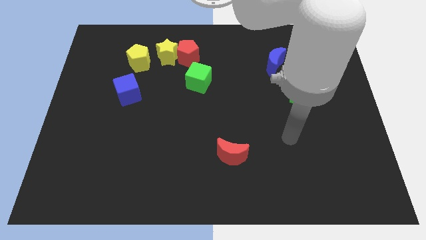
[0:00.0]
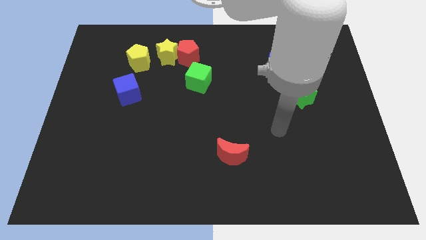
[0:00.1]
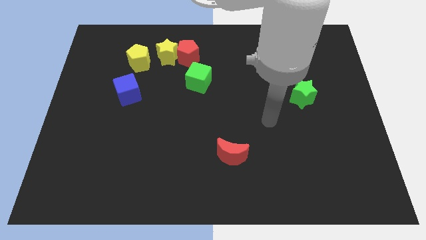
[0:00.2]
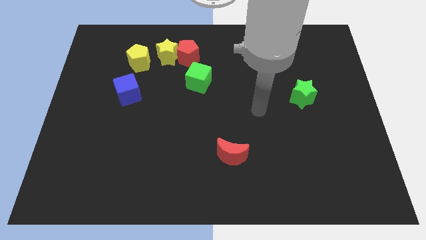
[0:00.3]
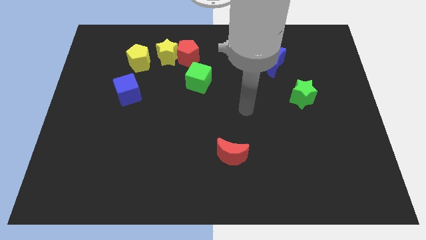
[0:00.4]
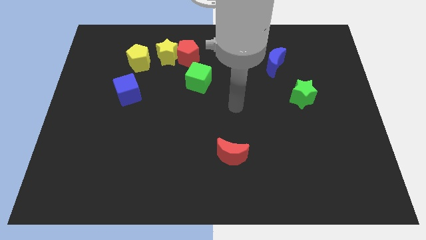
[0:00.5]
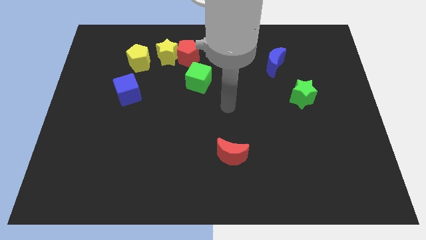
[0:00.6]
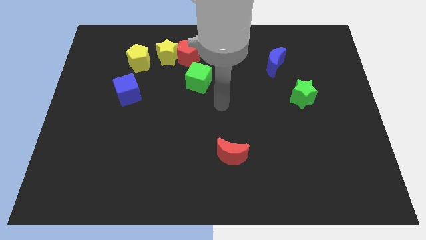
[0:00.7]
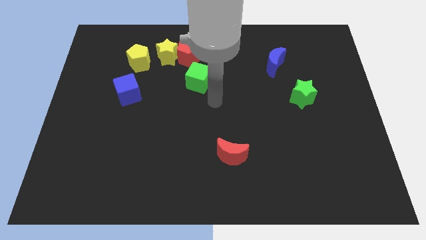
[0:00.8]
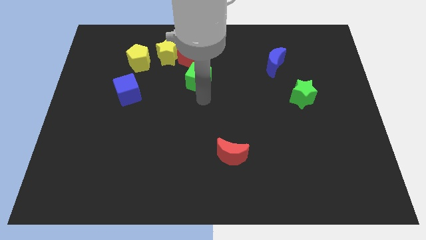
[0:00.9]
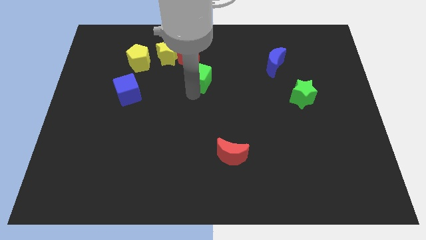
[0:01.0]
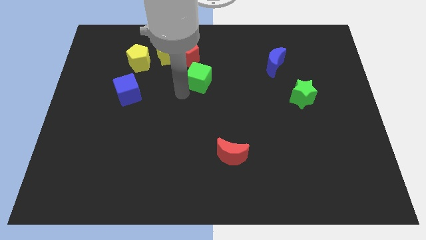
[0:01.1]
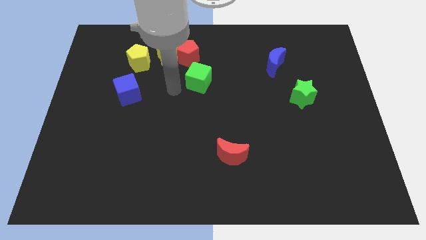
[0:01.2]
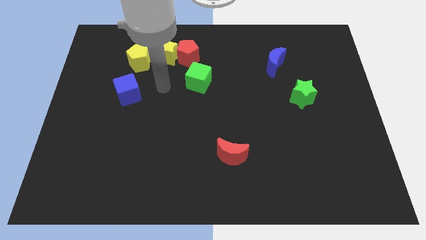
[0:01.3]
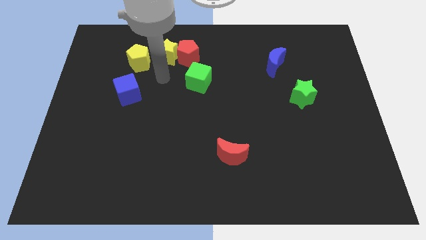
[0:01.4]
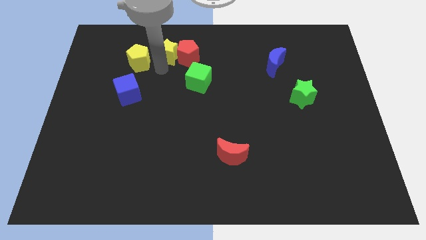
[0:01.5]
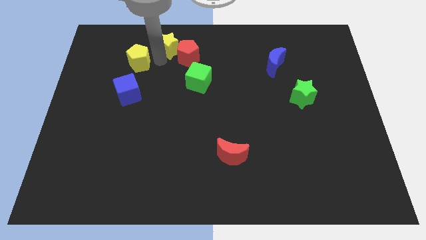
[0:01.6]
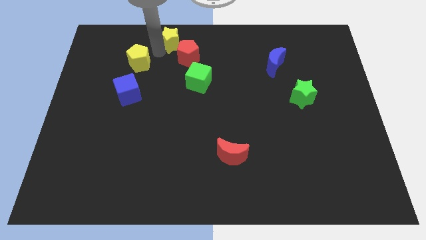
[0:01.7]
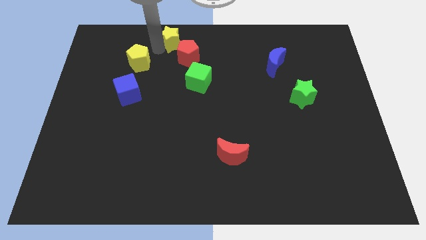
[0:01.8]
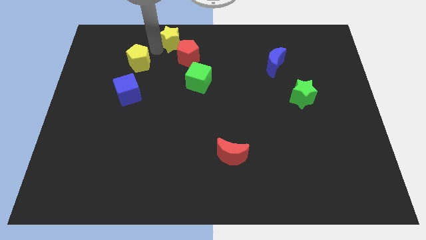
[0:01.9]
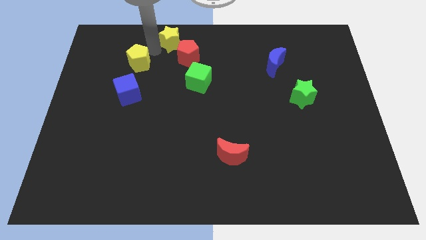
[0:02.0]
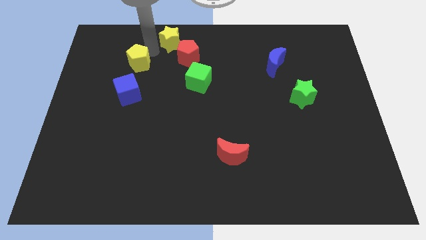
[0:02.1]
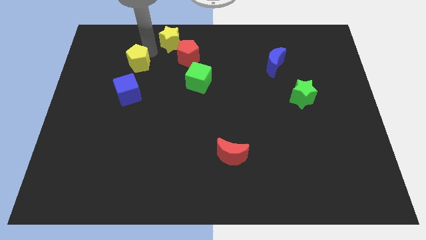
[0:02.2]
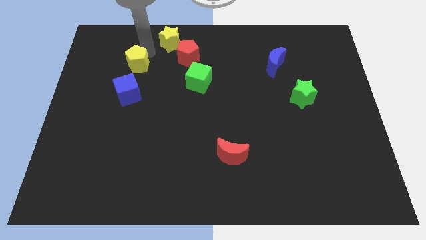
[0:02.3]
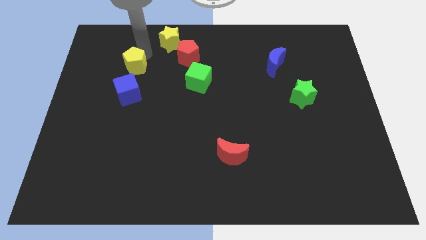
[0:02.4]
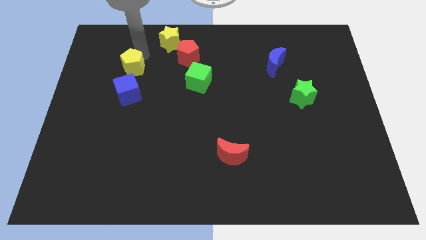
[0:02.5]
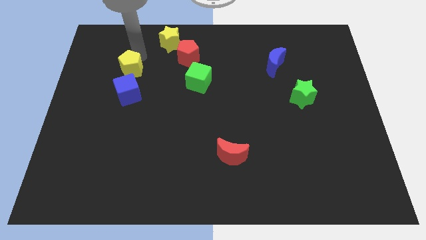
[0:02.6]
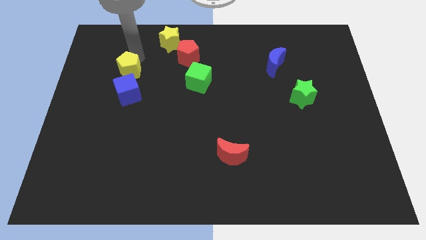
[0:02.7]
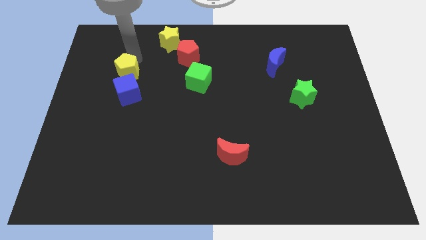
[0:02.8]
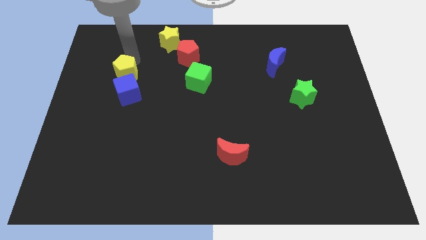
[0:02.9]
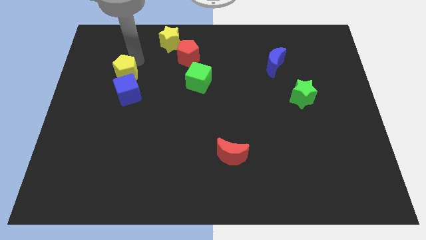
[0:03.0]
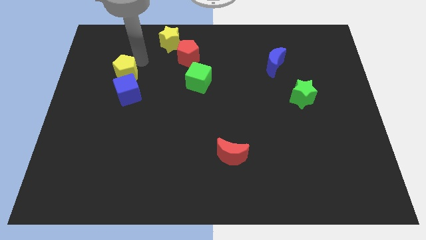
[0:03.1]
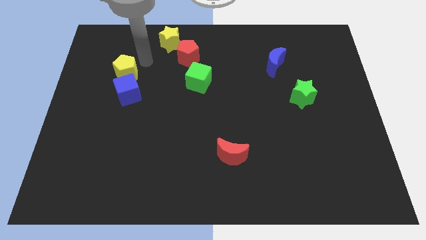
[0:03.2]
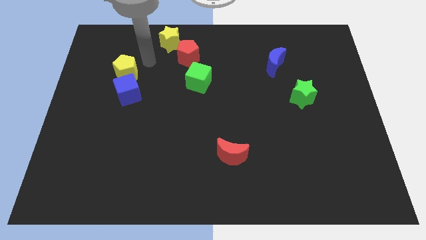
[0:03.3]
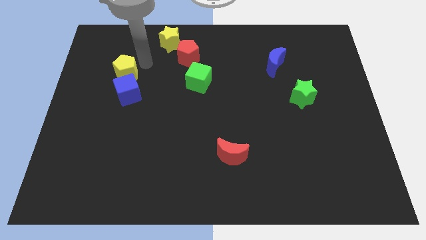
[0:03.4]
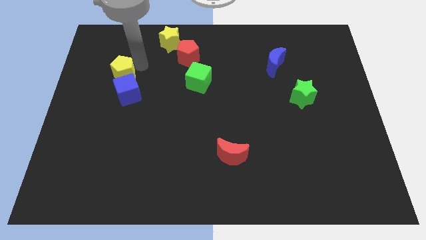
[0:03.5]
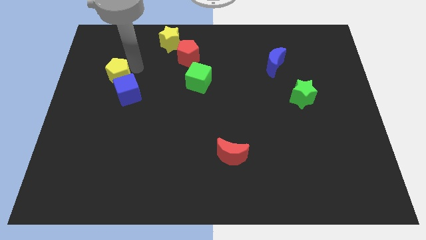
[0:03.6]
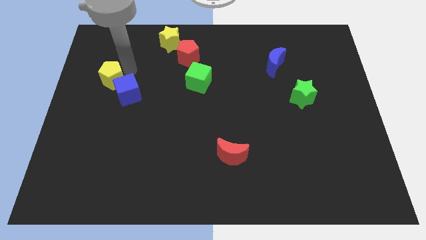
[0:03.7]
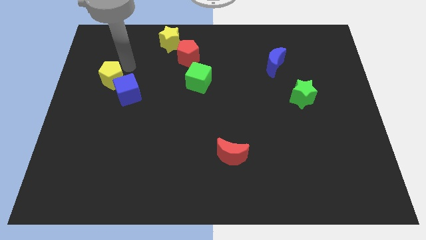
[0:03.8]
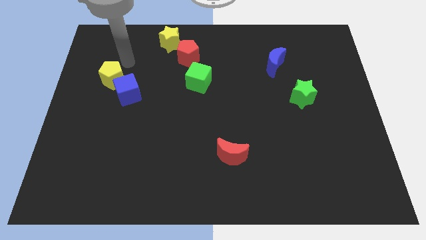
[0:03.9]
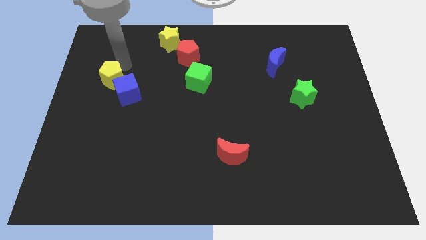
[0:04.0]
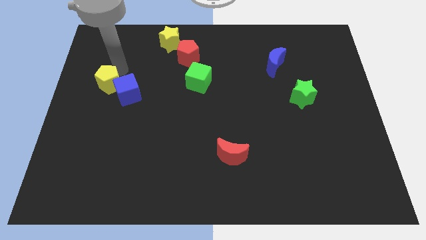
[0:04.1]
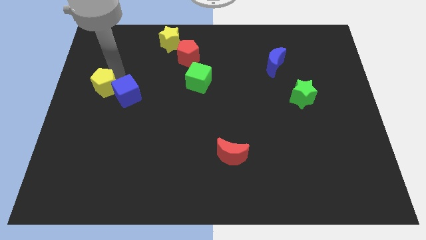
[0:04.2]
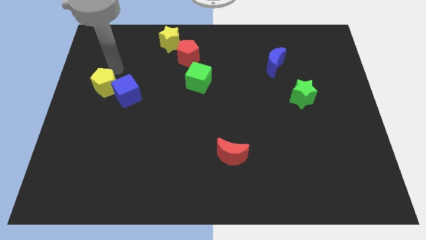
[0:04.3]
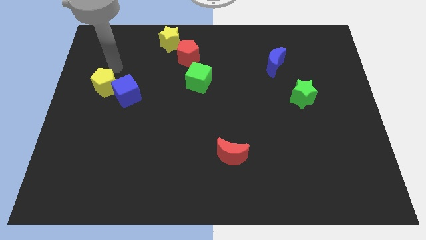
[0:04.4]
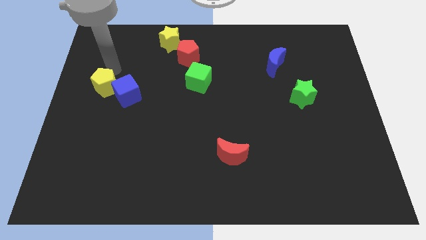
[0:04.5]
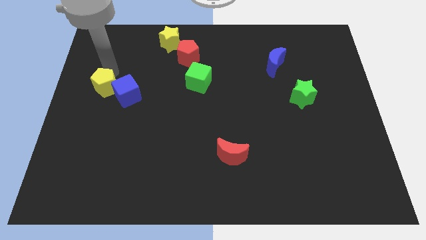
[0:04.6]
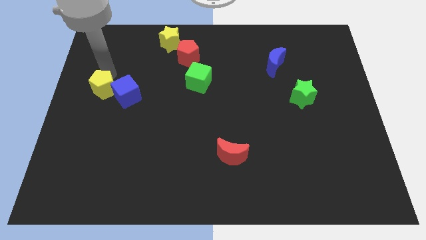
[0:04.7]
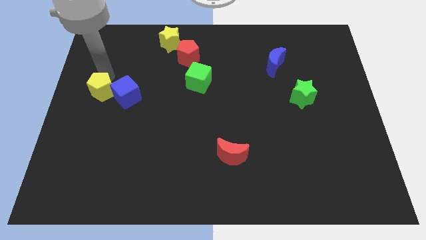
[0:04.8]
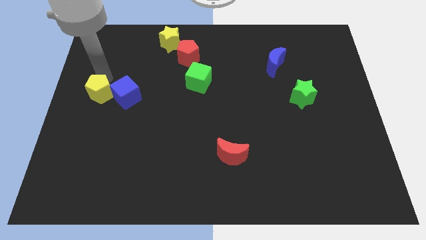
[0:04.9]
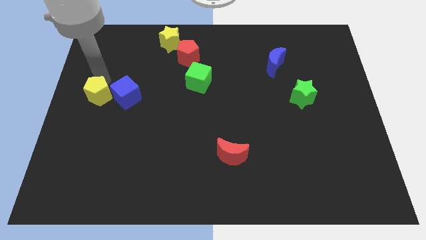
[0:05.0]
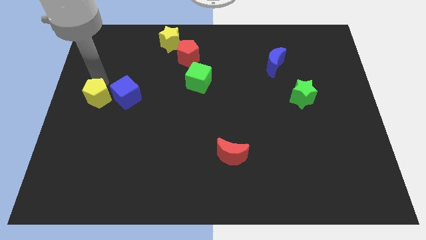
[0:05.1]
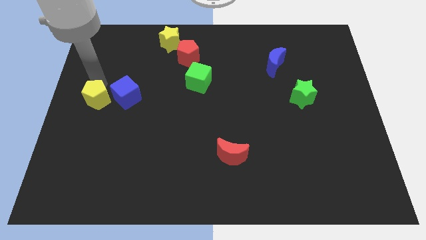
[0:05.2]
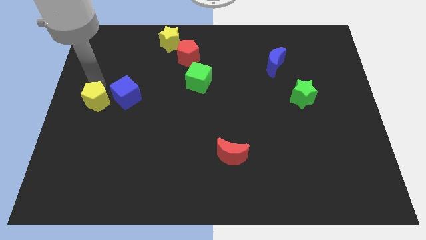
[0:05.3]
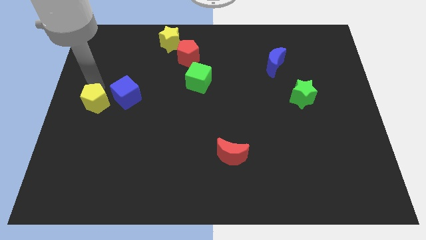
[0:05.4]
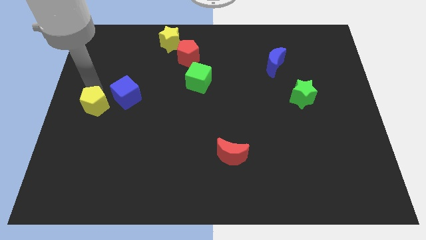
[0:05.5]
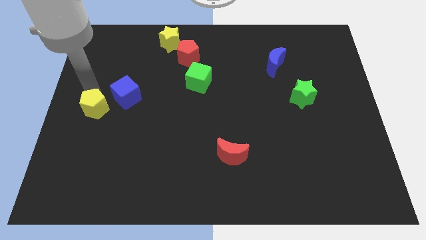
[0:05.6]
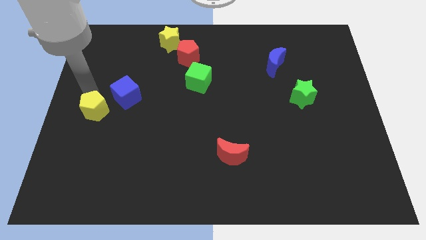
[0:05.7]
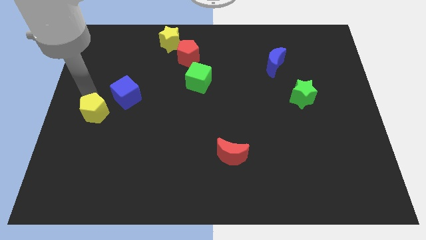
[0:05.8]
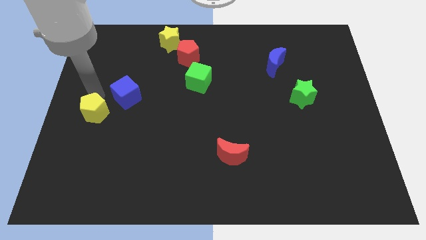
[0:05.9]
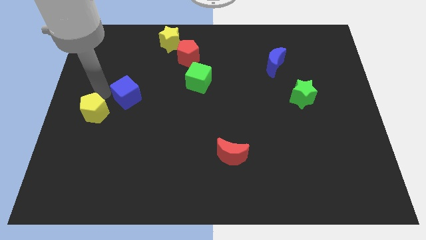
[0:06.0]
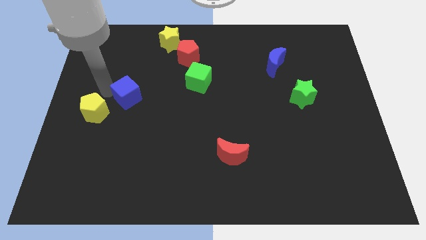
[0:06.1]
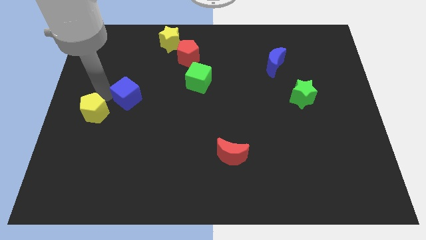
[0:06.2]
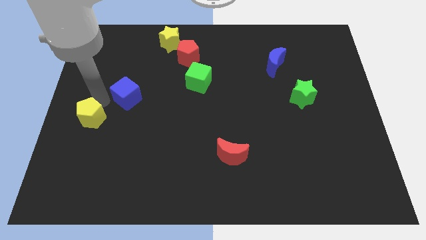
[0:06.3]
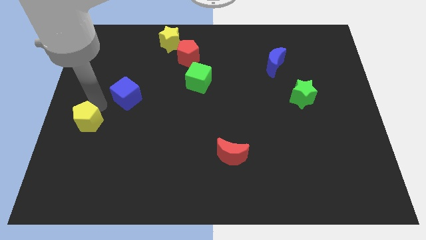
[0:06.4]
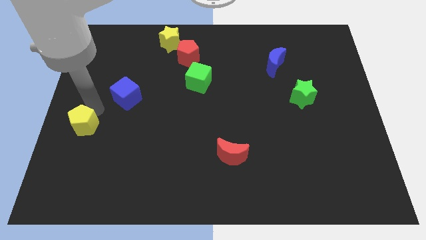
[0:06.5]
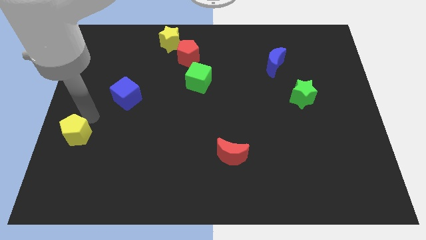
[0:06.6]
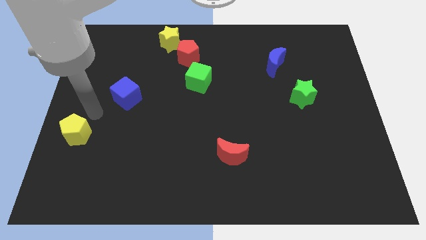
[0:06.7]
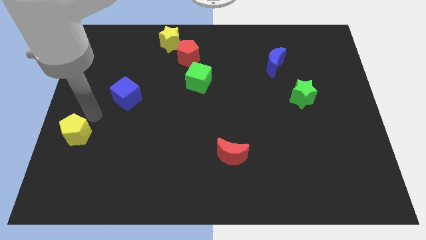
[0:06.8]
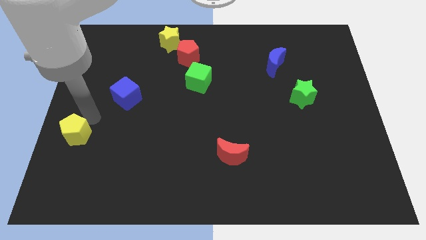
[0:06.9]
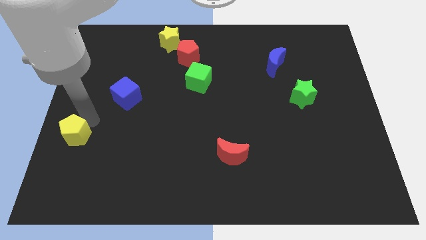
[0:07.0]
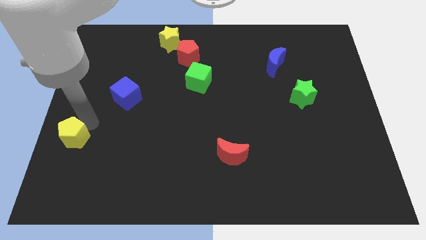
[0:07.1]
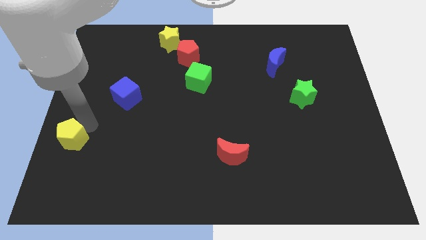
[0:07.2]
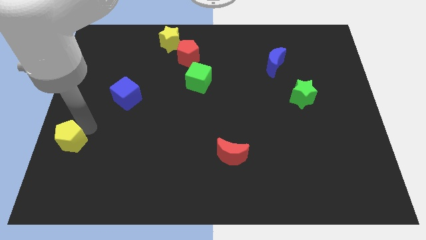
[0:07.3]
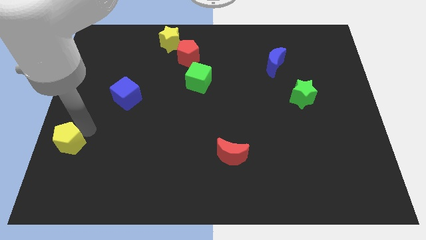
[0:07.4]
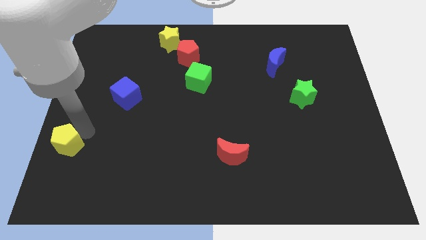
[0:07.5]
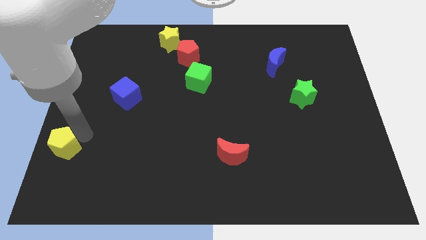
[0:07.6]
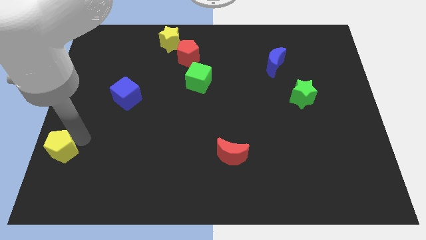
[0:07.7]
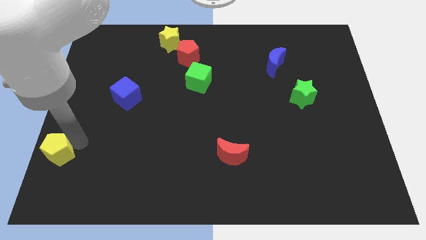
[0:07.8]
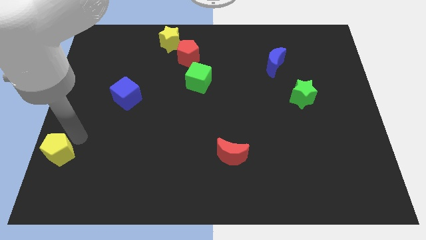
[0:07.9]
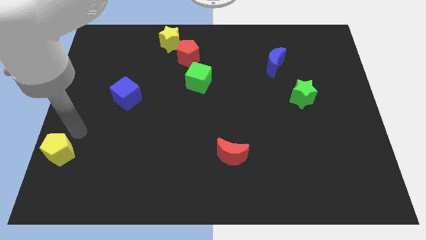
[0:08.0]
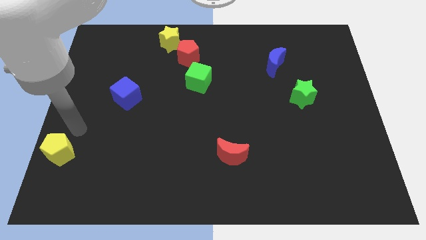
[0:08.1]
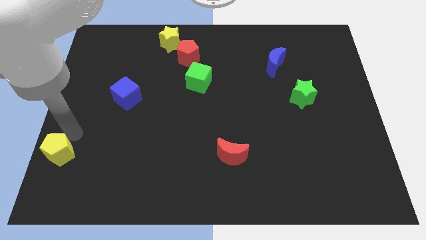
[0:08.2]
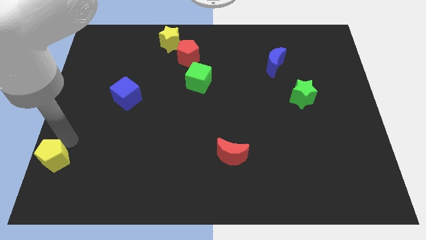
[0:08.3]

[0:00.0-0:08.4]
put the yellow pentagon to the bottom left of the board
